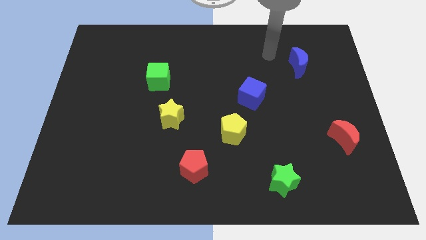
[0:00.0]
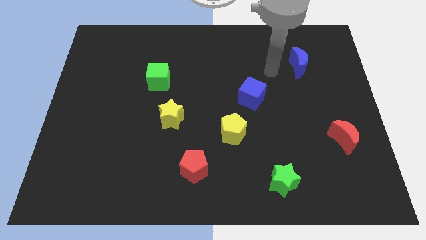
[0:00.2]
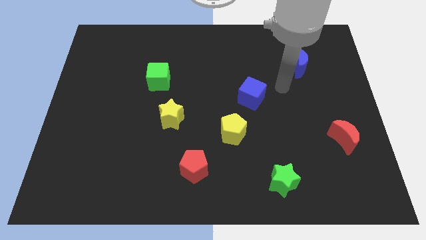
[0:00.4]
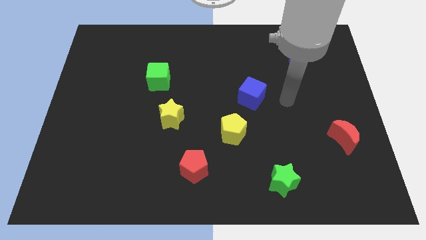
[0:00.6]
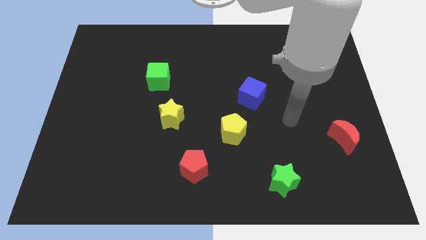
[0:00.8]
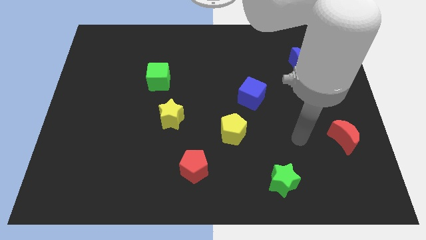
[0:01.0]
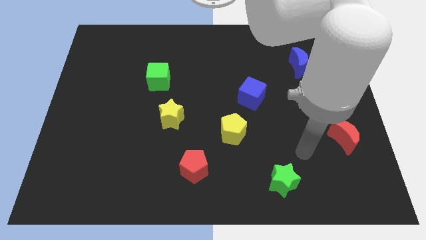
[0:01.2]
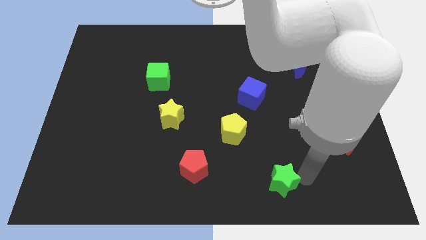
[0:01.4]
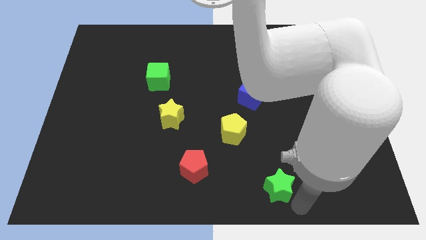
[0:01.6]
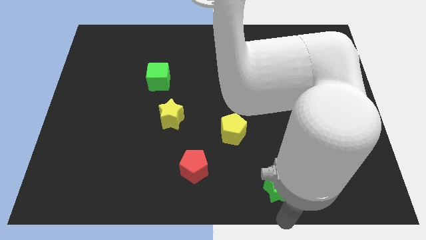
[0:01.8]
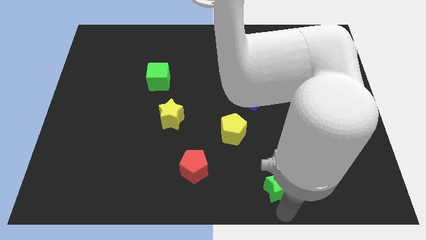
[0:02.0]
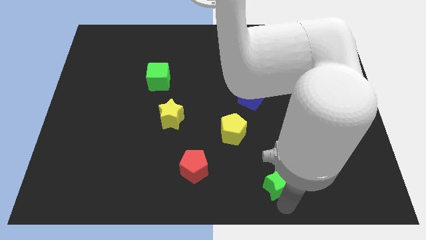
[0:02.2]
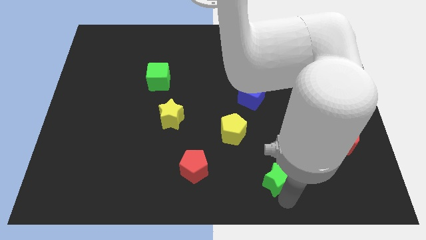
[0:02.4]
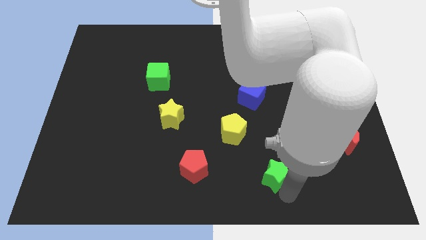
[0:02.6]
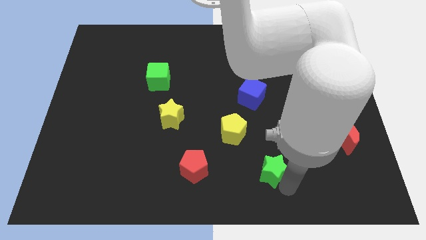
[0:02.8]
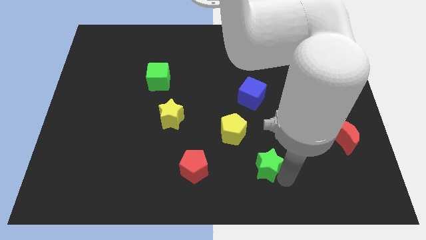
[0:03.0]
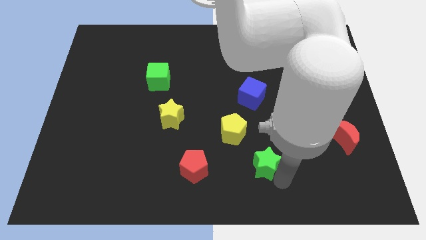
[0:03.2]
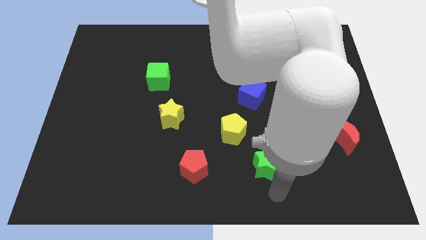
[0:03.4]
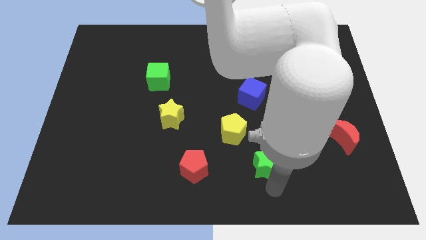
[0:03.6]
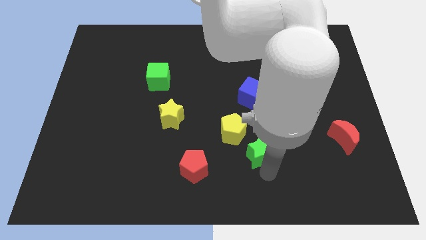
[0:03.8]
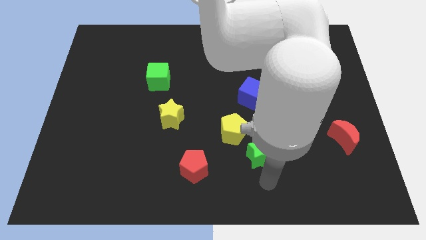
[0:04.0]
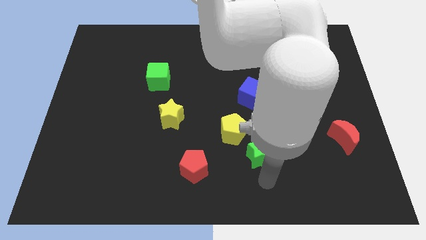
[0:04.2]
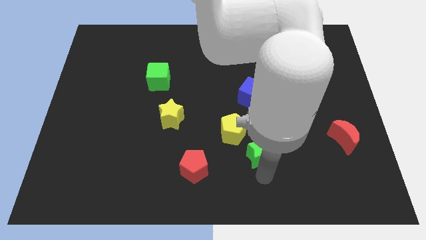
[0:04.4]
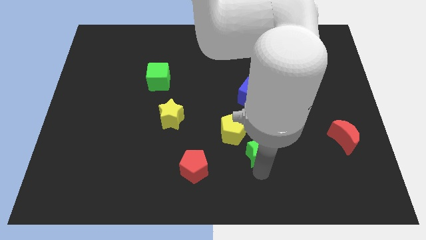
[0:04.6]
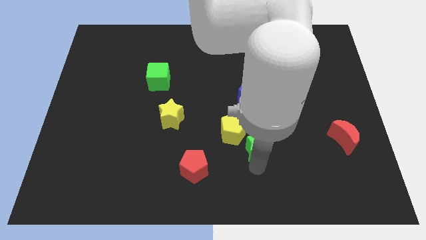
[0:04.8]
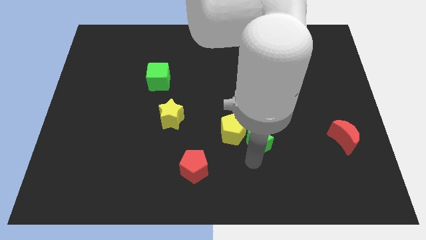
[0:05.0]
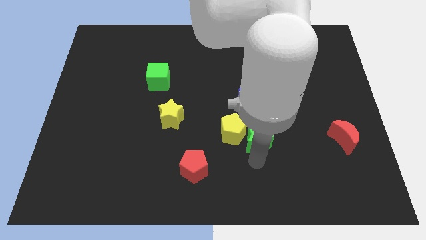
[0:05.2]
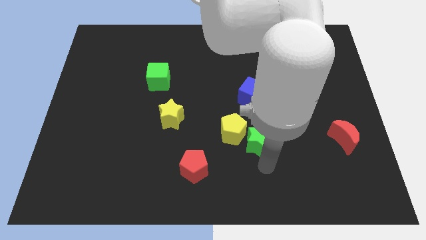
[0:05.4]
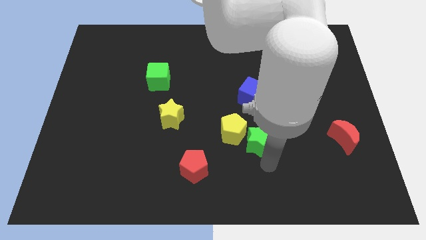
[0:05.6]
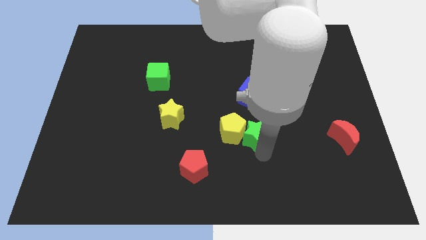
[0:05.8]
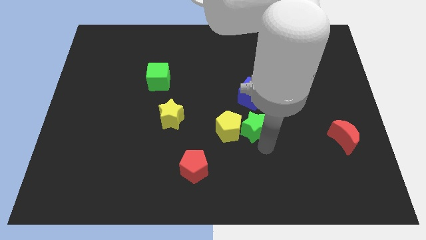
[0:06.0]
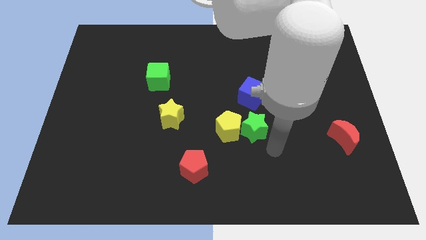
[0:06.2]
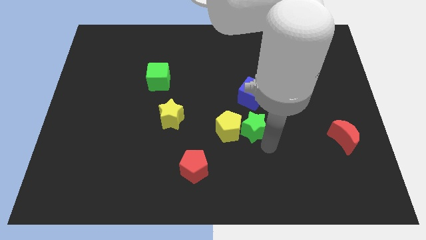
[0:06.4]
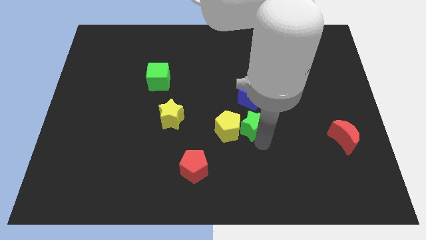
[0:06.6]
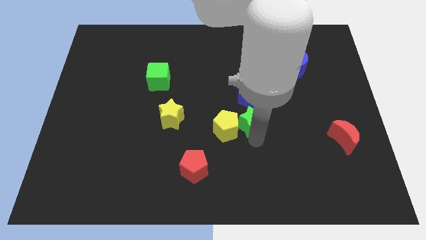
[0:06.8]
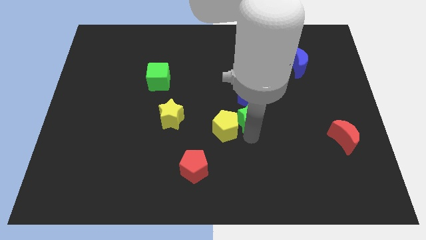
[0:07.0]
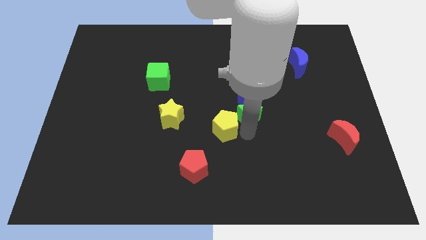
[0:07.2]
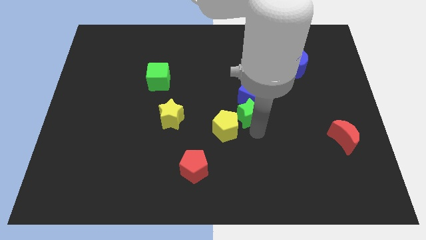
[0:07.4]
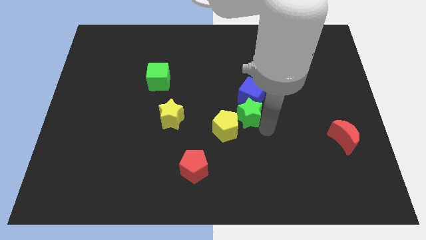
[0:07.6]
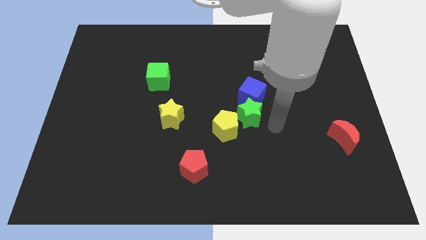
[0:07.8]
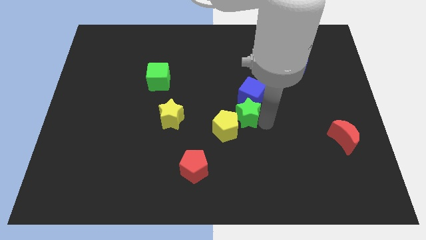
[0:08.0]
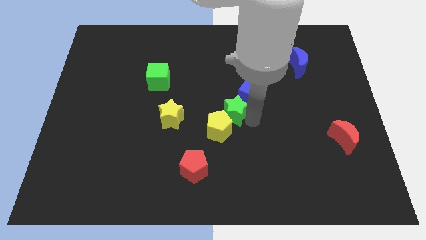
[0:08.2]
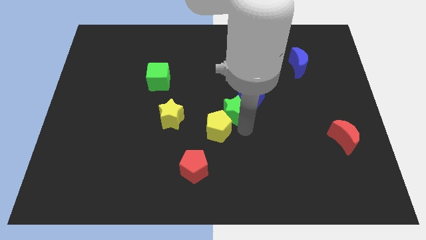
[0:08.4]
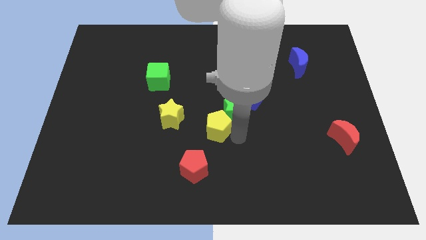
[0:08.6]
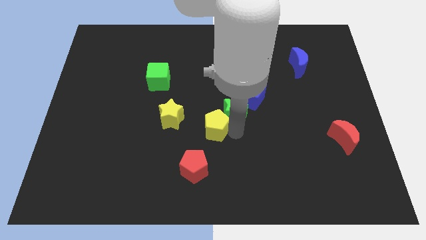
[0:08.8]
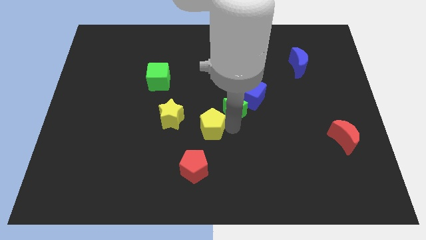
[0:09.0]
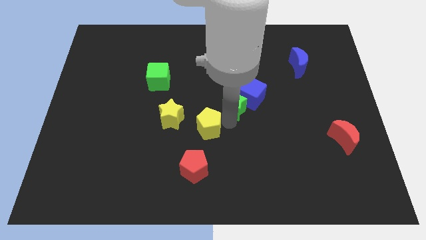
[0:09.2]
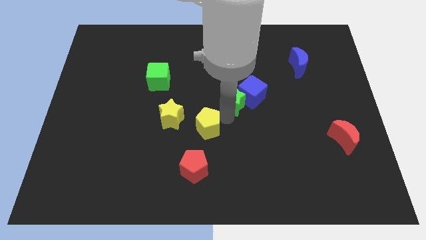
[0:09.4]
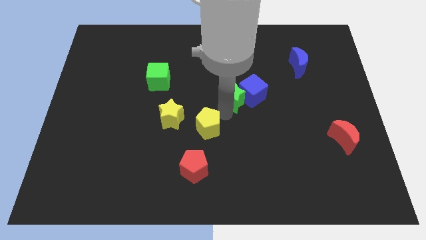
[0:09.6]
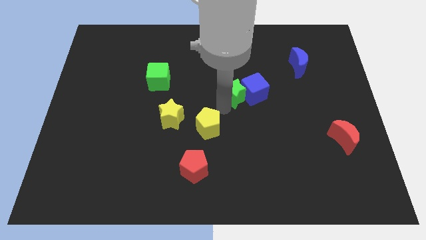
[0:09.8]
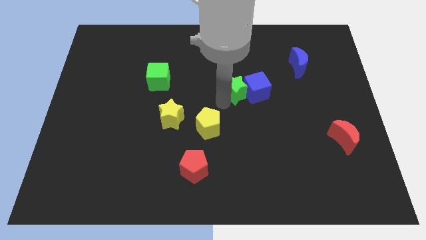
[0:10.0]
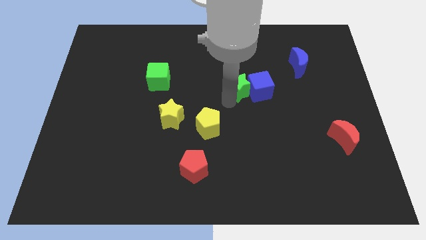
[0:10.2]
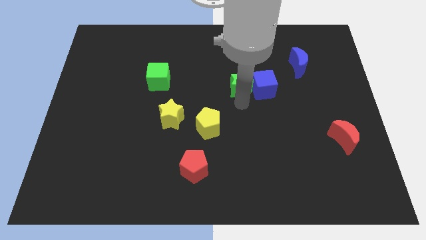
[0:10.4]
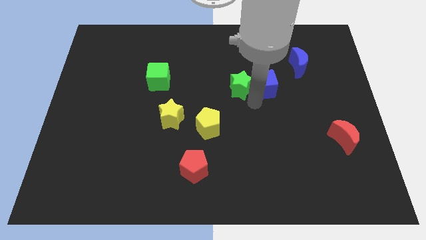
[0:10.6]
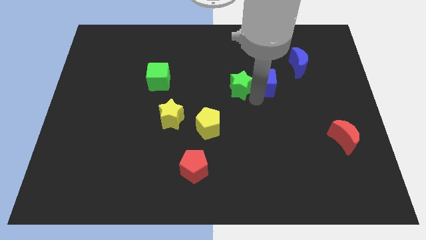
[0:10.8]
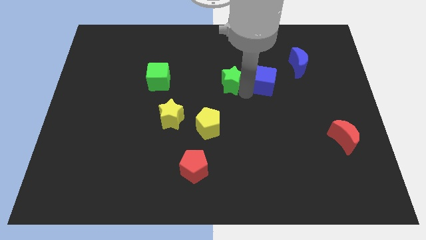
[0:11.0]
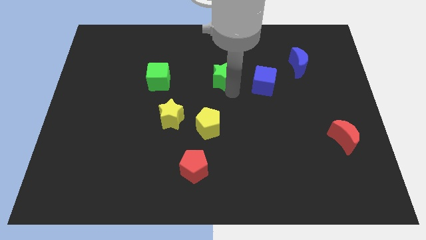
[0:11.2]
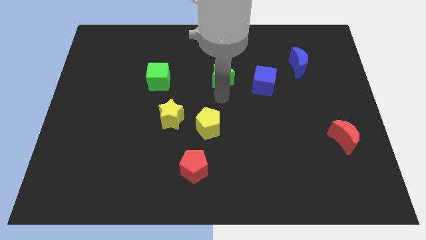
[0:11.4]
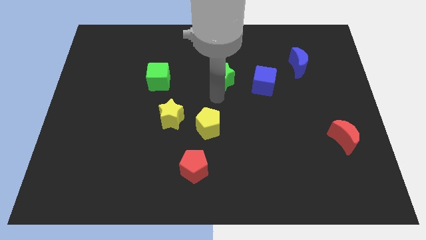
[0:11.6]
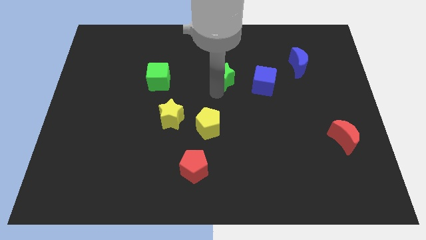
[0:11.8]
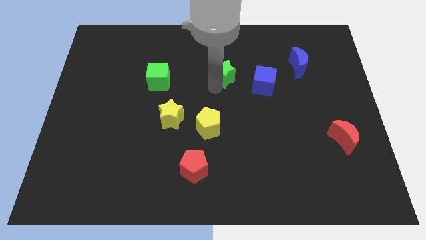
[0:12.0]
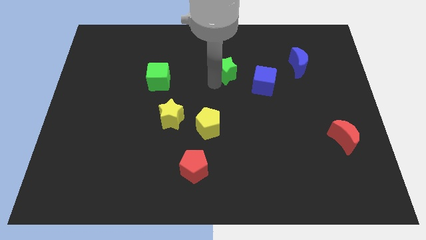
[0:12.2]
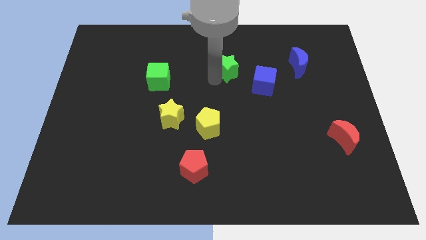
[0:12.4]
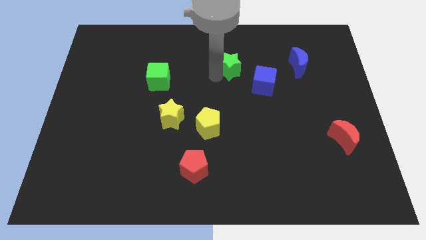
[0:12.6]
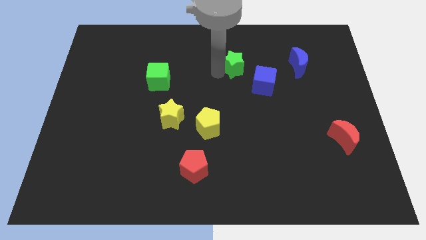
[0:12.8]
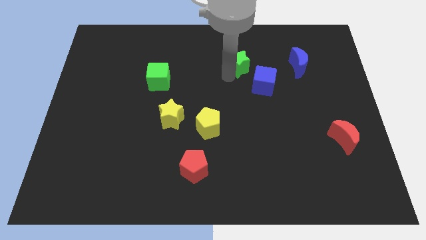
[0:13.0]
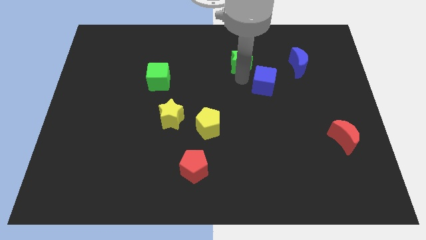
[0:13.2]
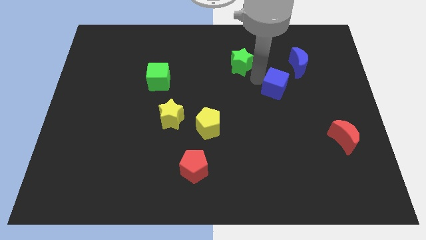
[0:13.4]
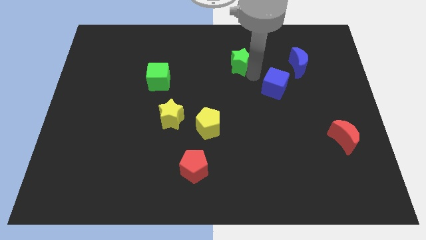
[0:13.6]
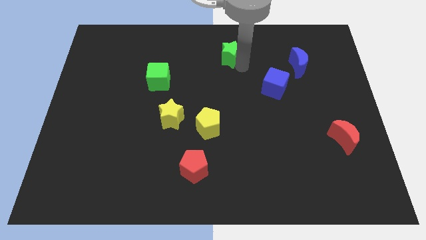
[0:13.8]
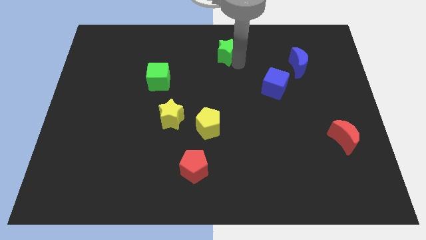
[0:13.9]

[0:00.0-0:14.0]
put the green star to the top

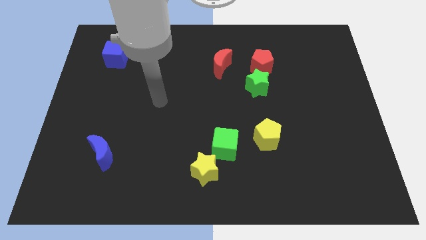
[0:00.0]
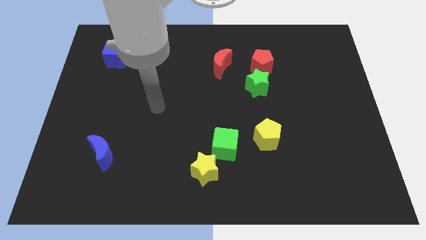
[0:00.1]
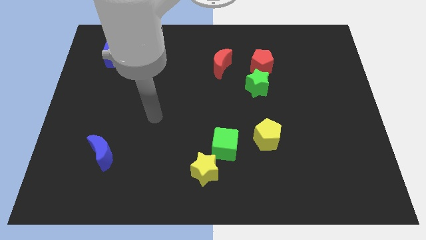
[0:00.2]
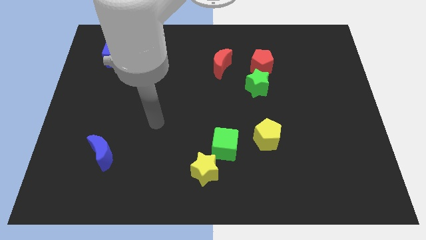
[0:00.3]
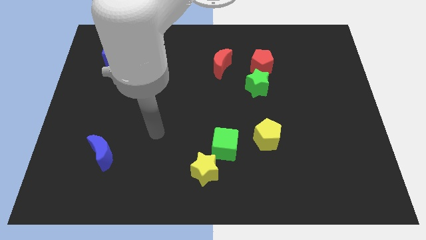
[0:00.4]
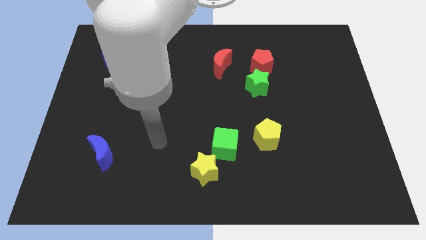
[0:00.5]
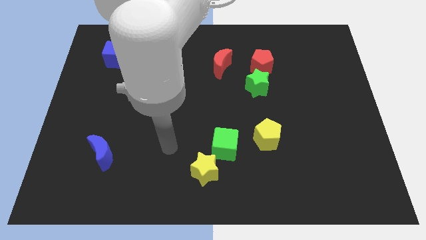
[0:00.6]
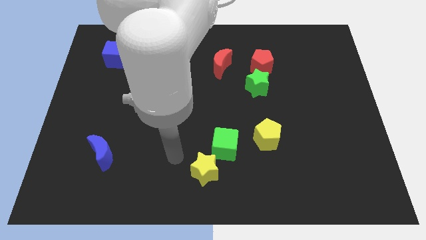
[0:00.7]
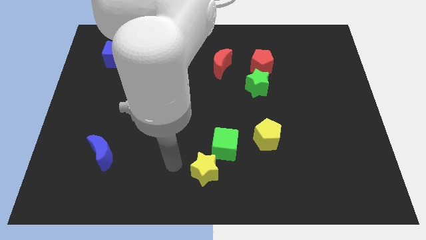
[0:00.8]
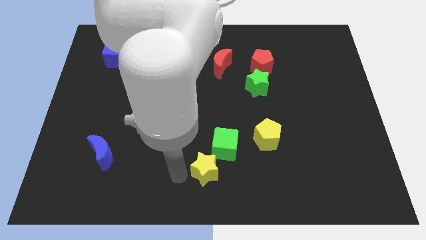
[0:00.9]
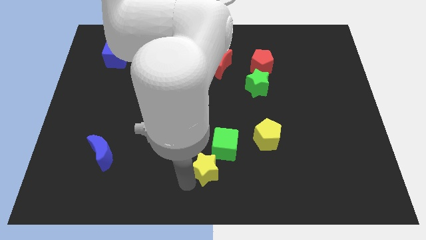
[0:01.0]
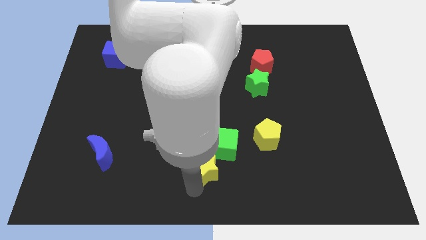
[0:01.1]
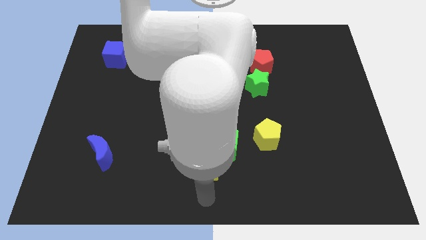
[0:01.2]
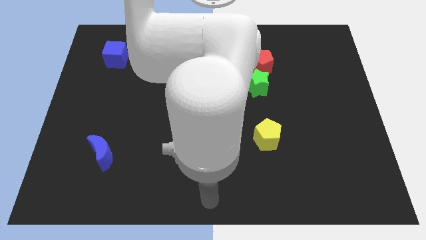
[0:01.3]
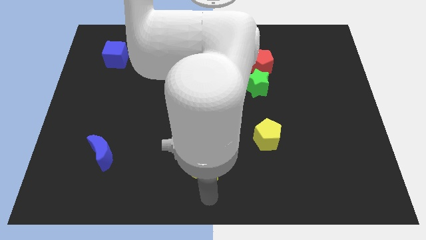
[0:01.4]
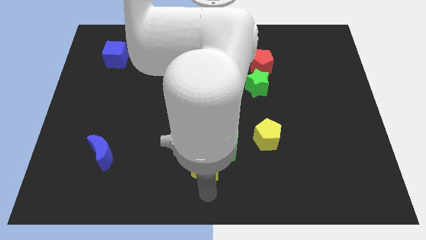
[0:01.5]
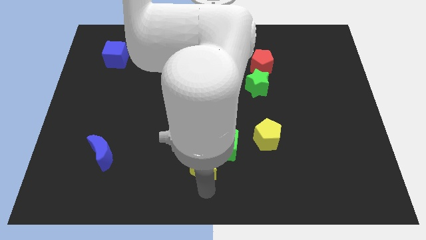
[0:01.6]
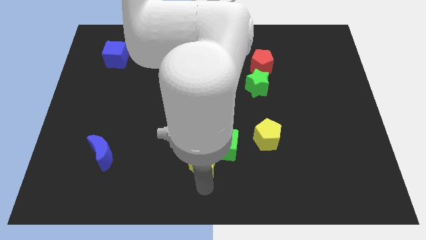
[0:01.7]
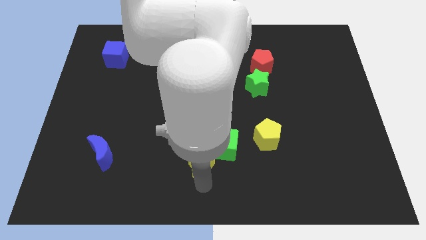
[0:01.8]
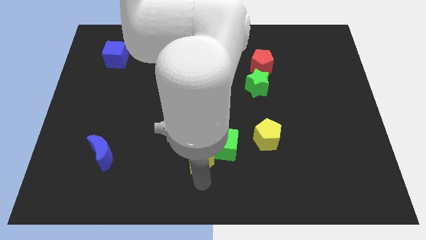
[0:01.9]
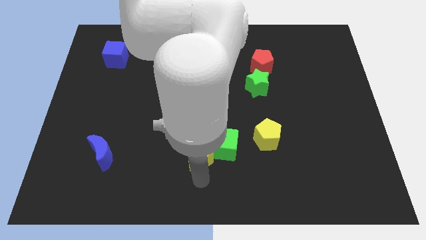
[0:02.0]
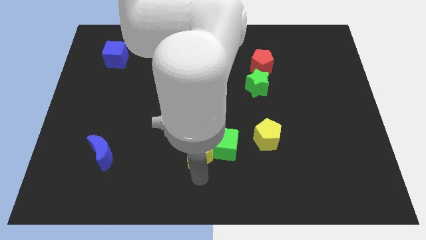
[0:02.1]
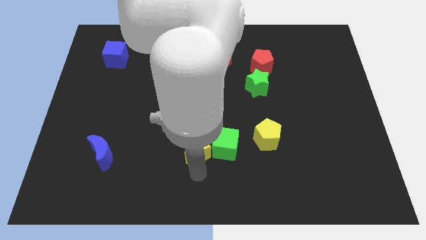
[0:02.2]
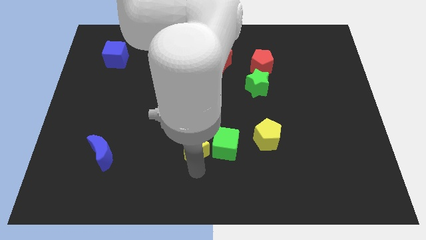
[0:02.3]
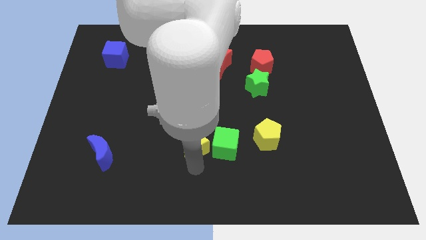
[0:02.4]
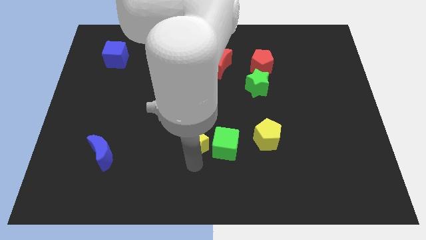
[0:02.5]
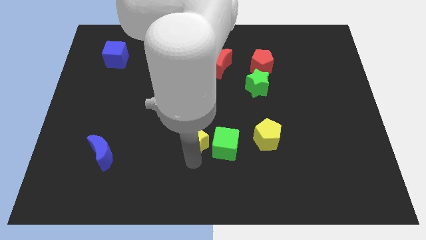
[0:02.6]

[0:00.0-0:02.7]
put the yellow star to the center
